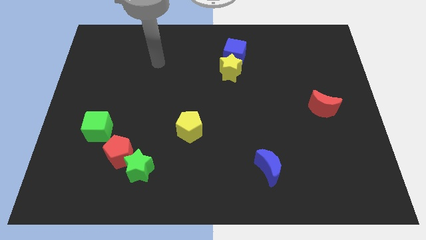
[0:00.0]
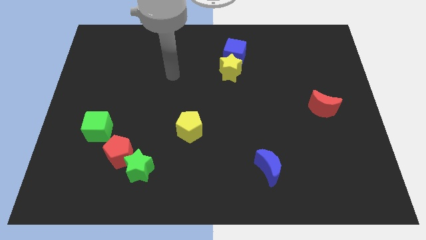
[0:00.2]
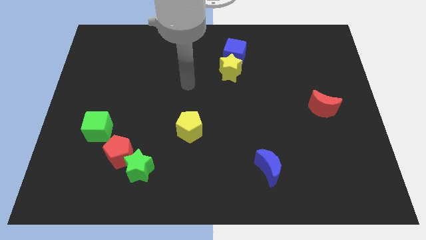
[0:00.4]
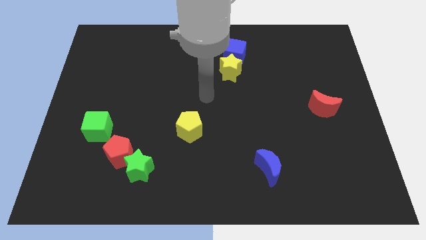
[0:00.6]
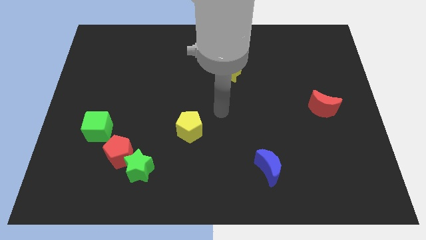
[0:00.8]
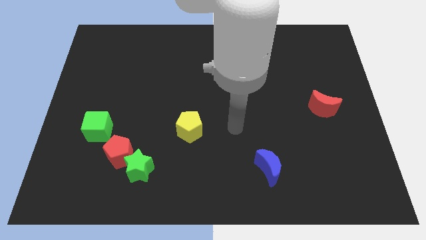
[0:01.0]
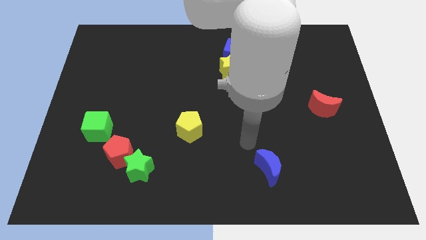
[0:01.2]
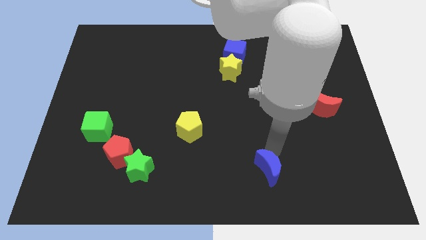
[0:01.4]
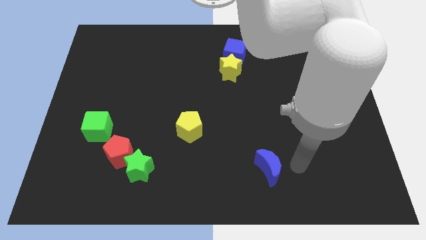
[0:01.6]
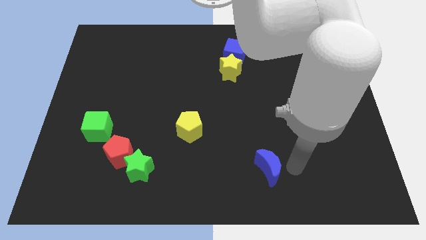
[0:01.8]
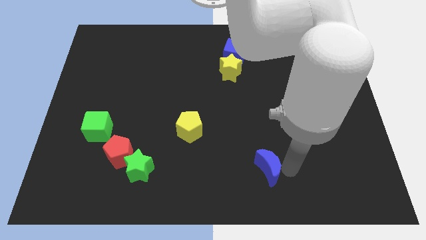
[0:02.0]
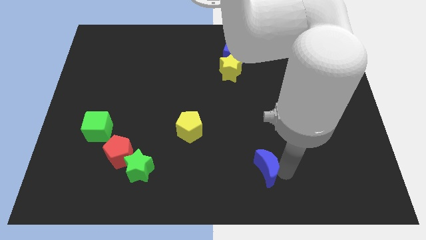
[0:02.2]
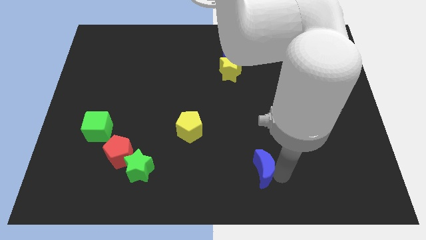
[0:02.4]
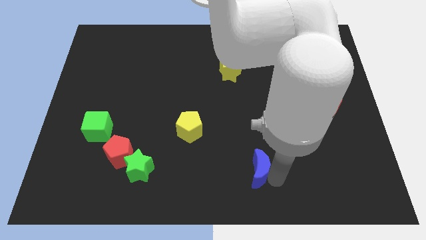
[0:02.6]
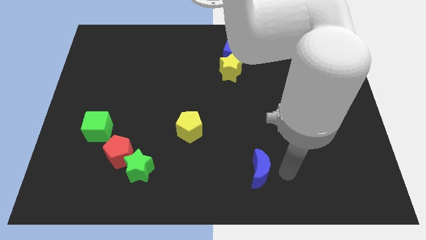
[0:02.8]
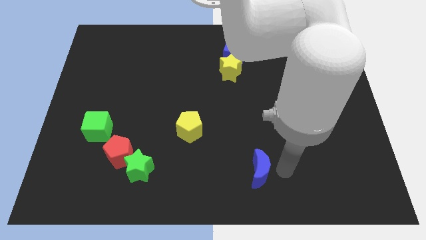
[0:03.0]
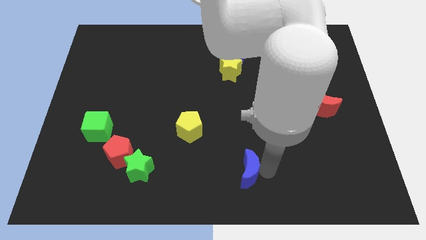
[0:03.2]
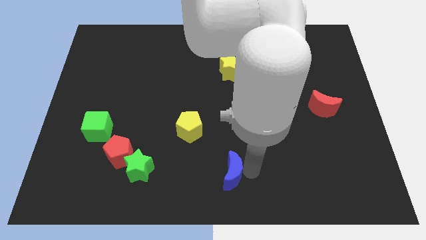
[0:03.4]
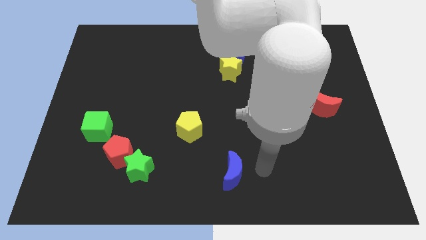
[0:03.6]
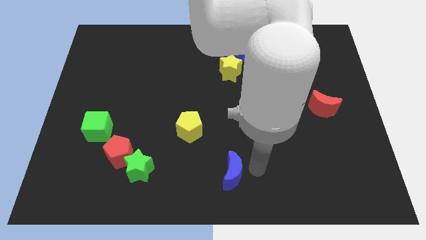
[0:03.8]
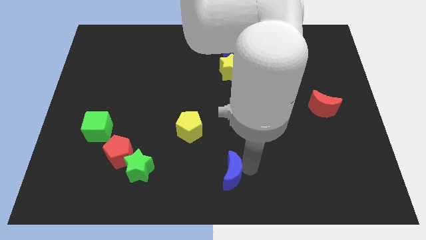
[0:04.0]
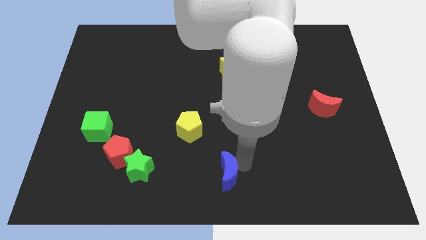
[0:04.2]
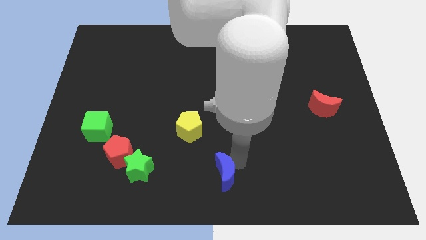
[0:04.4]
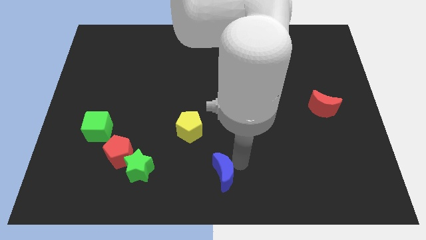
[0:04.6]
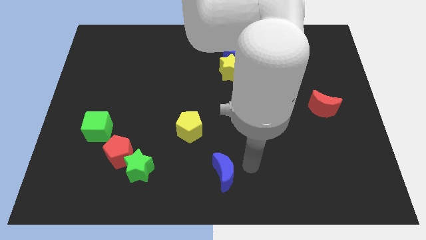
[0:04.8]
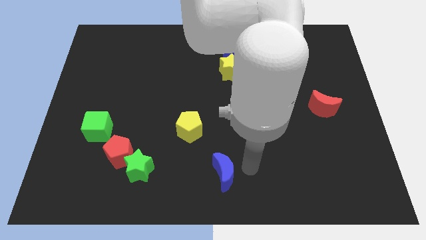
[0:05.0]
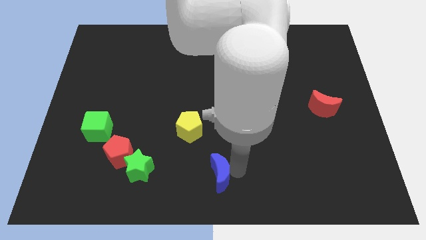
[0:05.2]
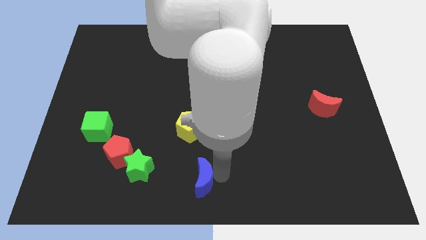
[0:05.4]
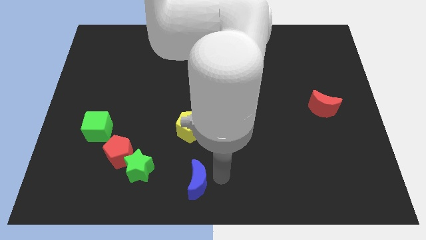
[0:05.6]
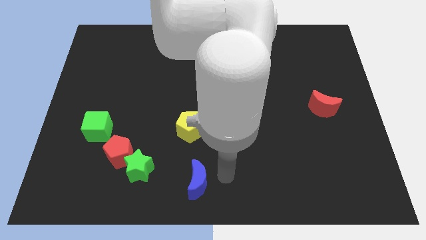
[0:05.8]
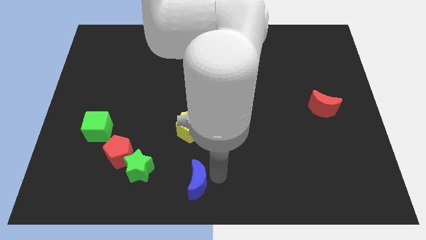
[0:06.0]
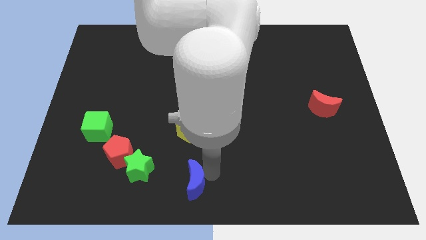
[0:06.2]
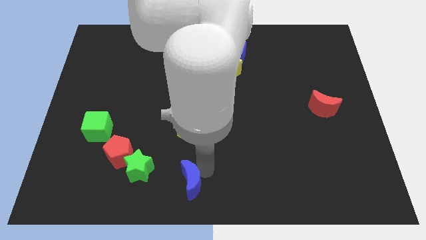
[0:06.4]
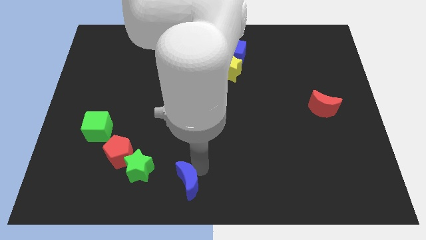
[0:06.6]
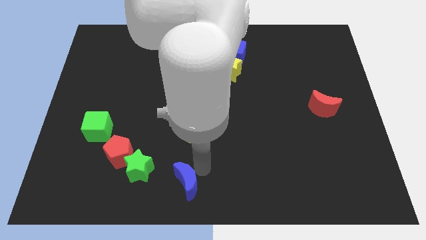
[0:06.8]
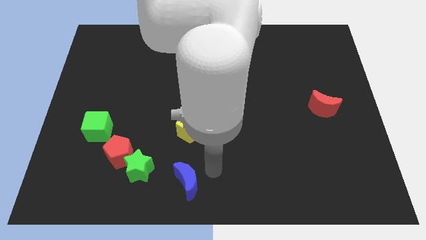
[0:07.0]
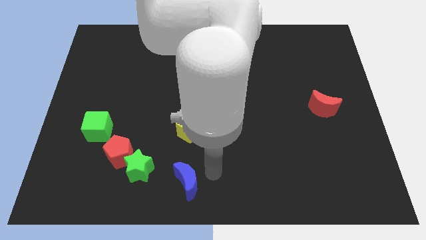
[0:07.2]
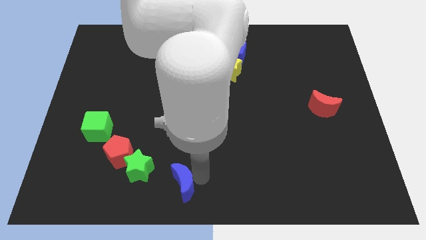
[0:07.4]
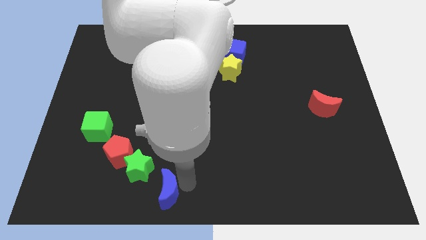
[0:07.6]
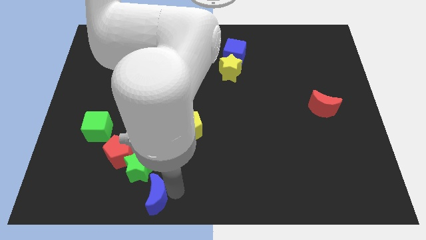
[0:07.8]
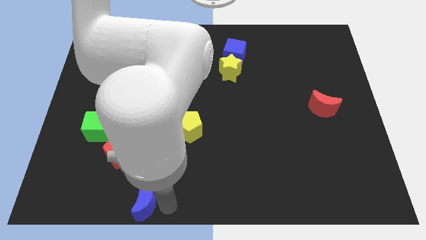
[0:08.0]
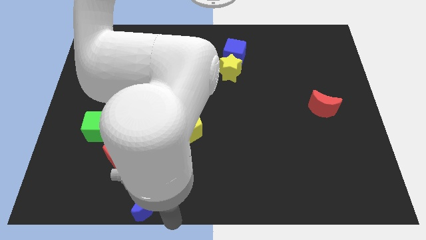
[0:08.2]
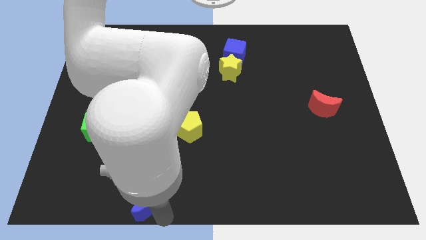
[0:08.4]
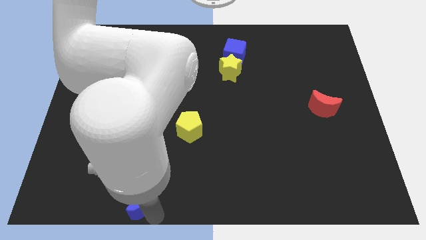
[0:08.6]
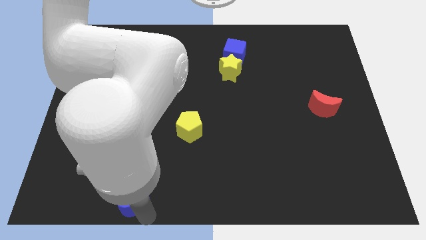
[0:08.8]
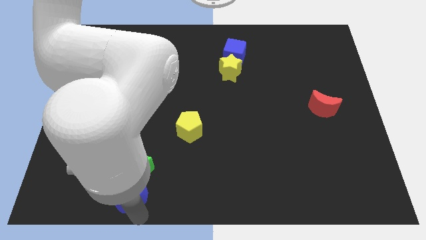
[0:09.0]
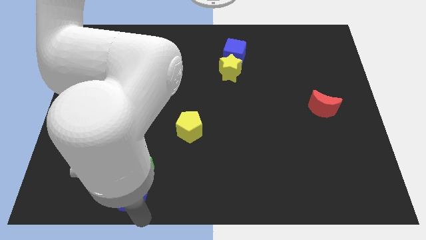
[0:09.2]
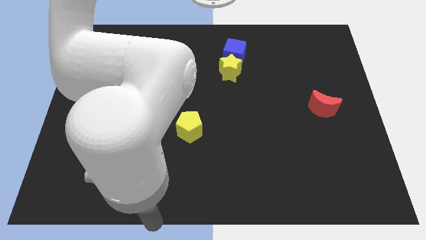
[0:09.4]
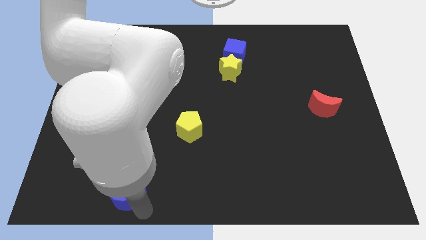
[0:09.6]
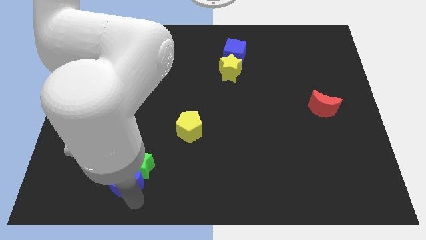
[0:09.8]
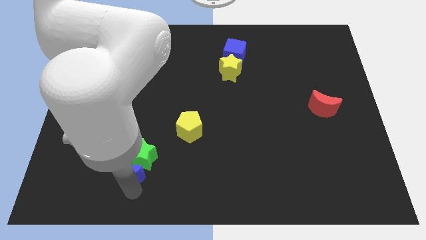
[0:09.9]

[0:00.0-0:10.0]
move the blue moon left of the green star

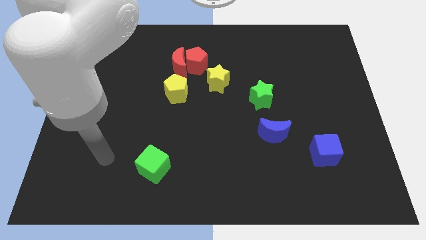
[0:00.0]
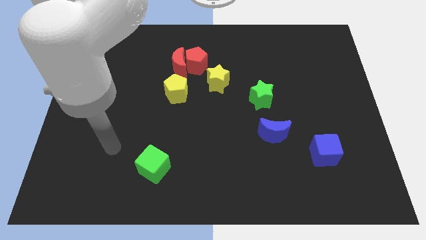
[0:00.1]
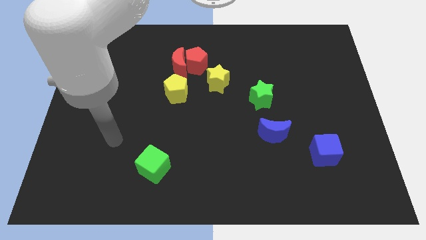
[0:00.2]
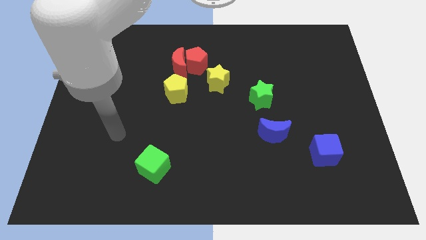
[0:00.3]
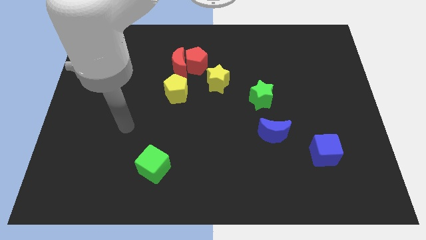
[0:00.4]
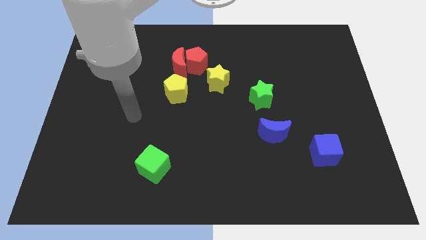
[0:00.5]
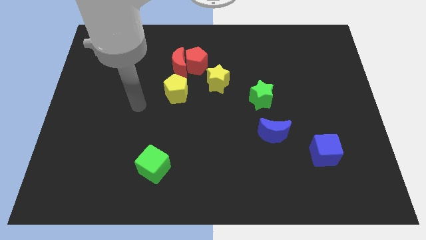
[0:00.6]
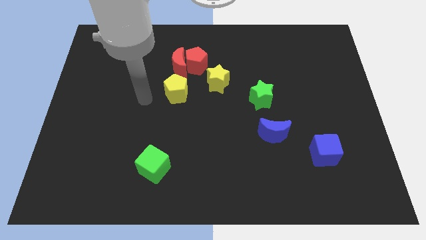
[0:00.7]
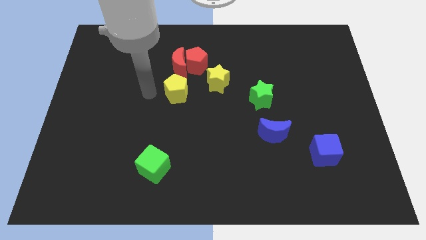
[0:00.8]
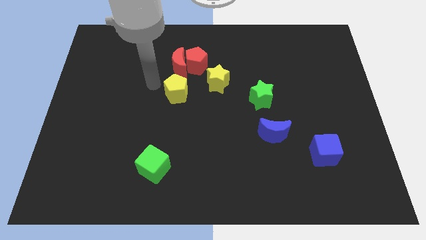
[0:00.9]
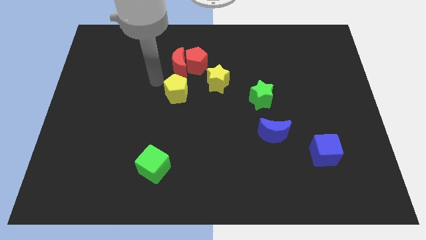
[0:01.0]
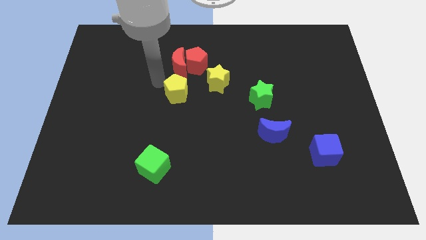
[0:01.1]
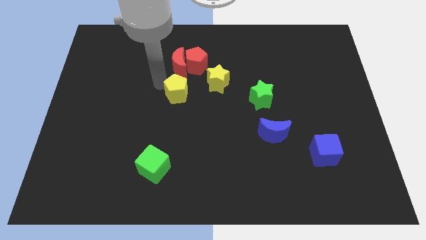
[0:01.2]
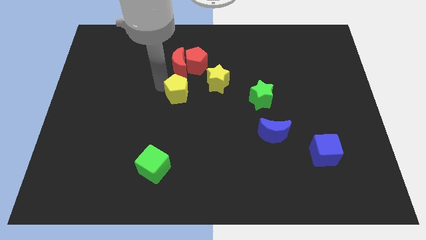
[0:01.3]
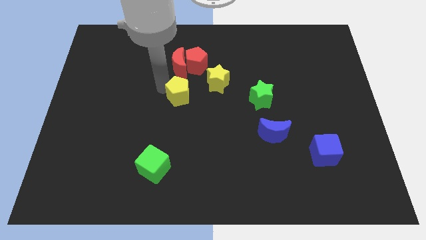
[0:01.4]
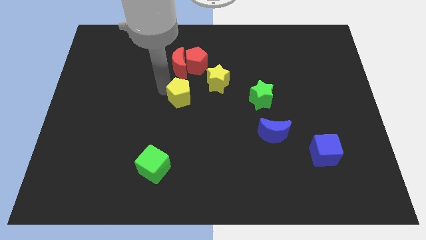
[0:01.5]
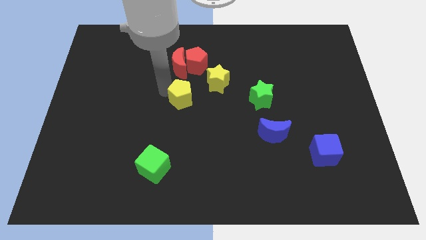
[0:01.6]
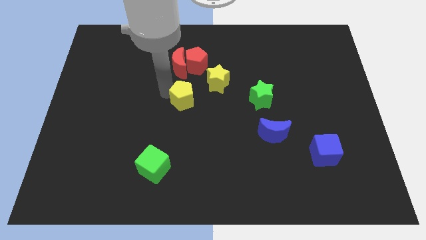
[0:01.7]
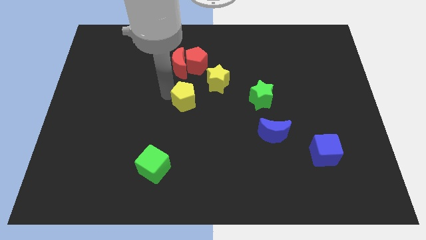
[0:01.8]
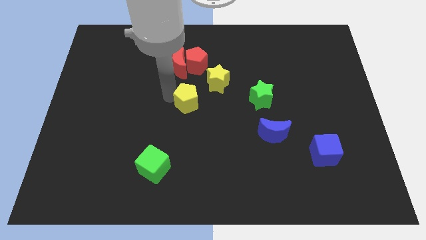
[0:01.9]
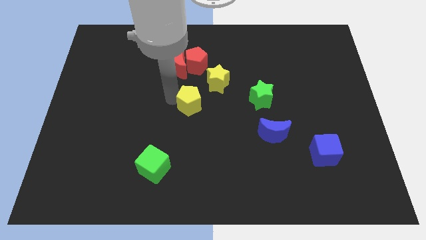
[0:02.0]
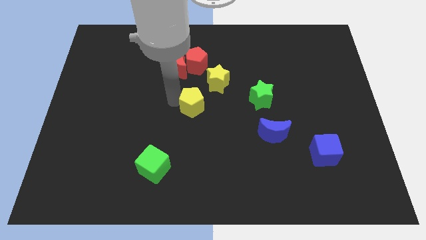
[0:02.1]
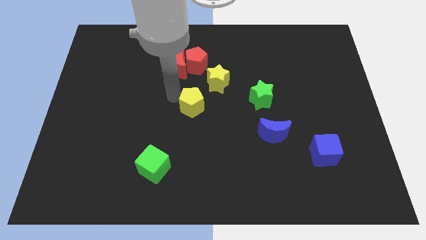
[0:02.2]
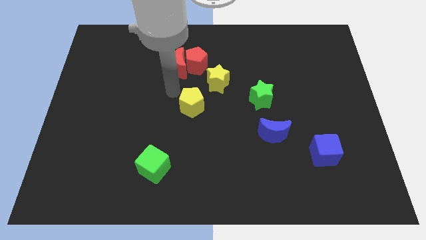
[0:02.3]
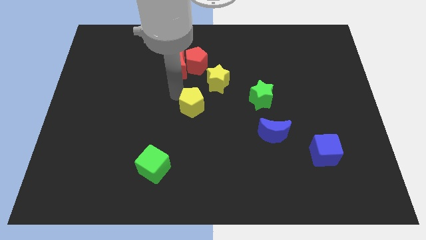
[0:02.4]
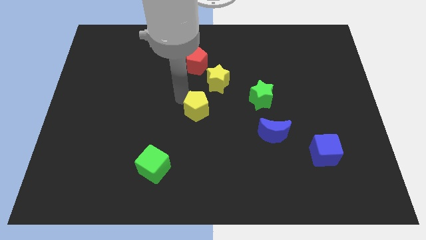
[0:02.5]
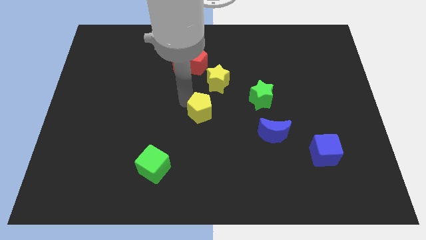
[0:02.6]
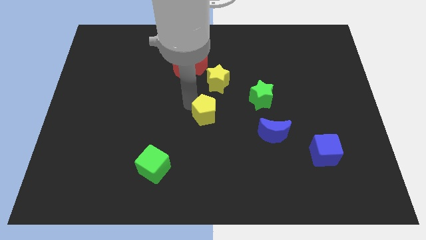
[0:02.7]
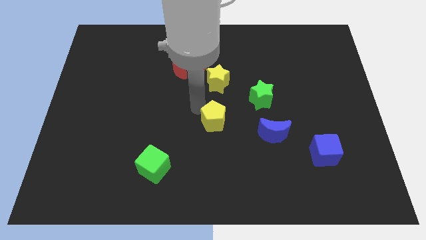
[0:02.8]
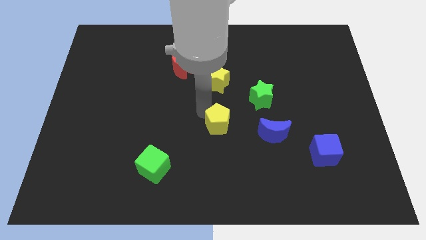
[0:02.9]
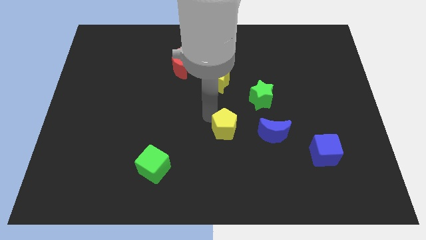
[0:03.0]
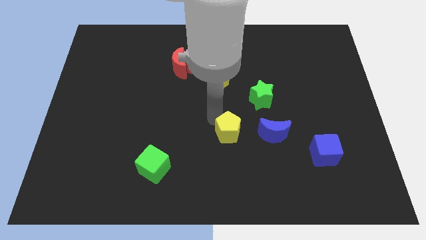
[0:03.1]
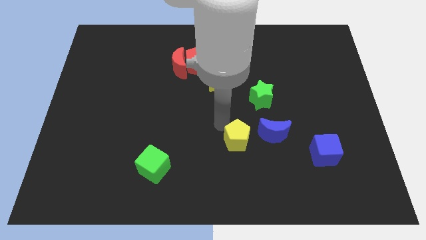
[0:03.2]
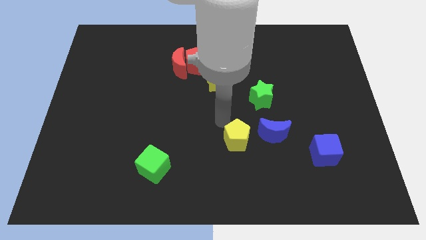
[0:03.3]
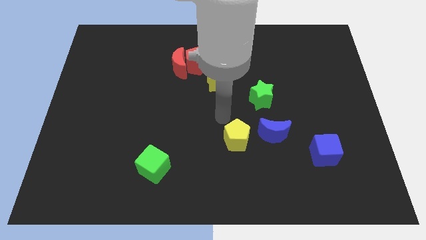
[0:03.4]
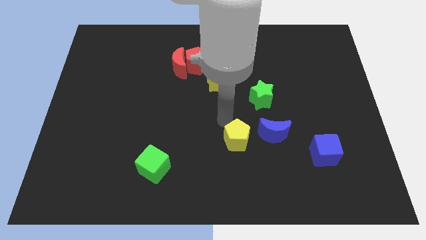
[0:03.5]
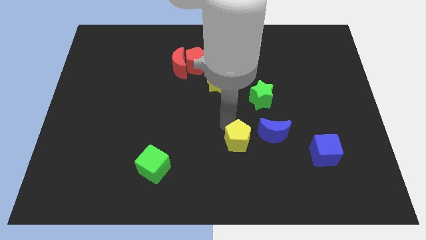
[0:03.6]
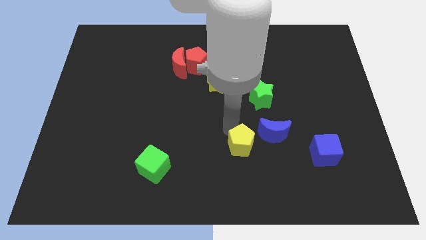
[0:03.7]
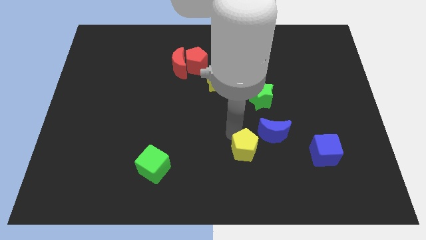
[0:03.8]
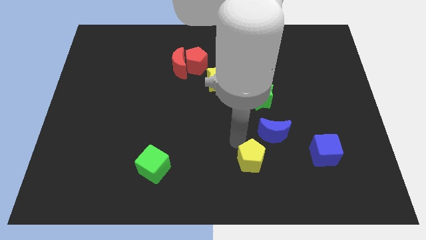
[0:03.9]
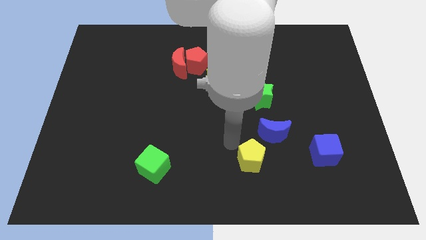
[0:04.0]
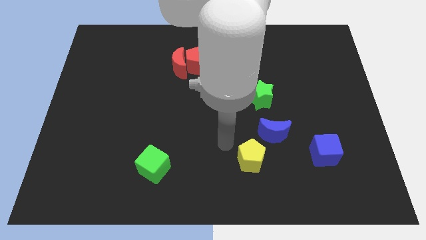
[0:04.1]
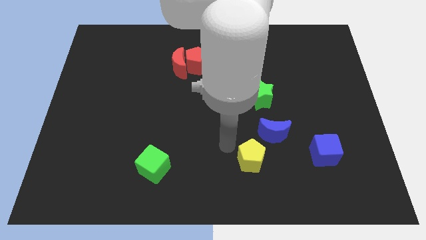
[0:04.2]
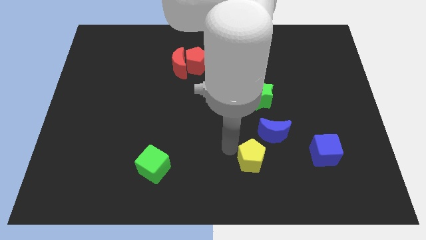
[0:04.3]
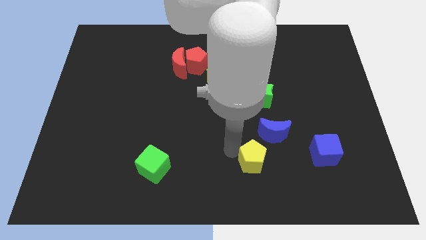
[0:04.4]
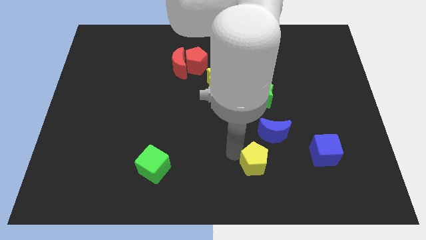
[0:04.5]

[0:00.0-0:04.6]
move the yellow pentagon below the blue moon
